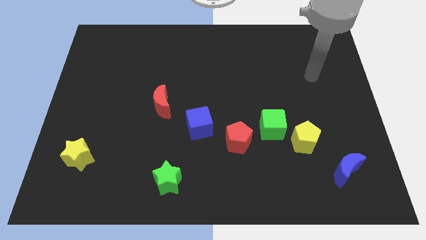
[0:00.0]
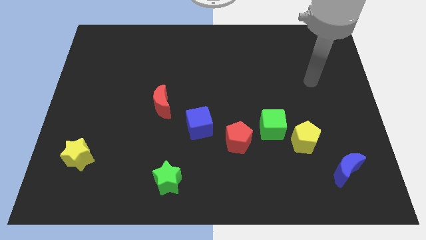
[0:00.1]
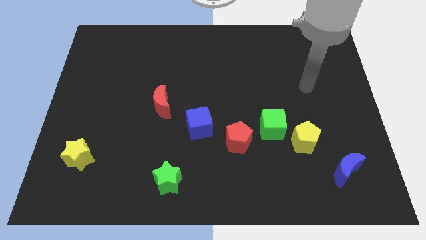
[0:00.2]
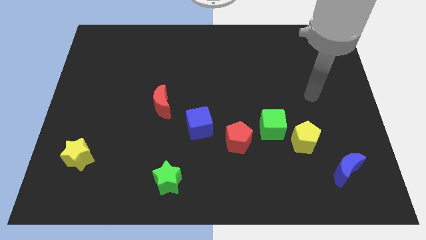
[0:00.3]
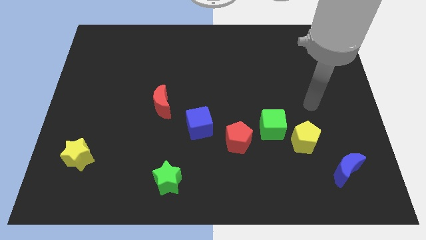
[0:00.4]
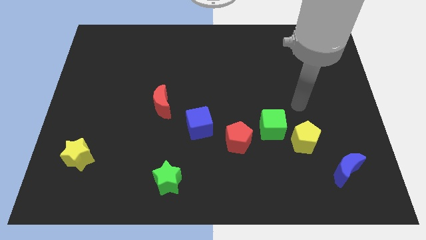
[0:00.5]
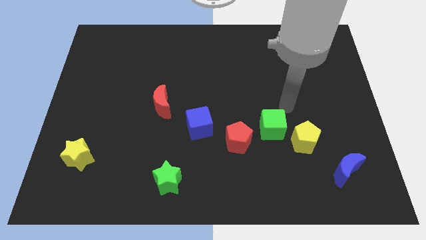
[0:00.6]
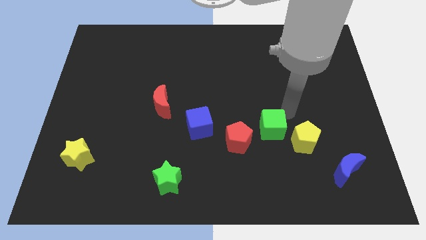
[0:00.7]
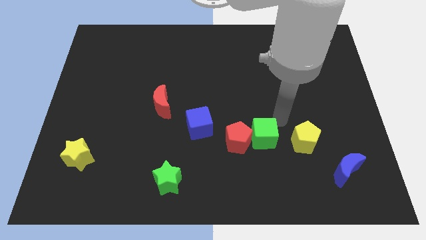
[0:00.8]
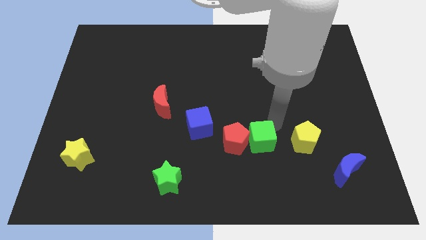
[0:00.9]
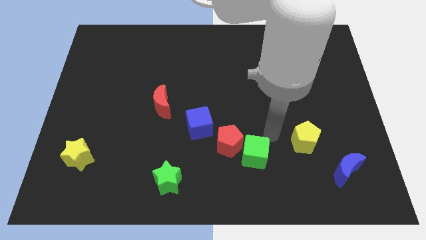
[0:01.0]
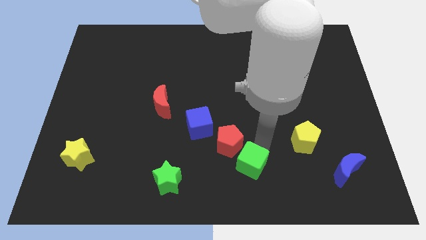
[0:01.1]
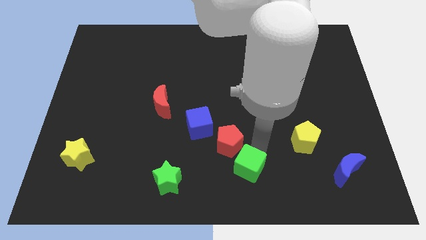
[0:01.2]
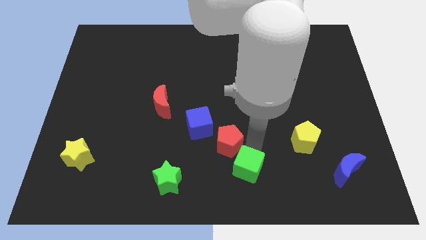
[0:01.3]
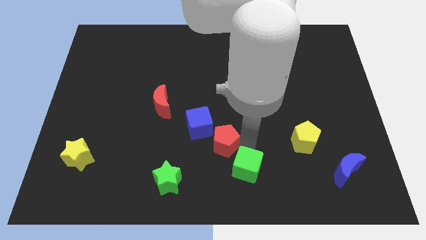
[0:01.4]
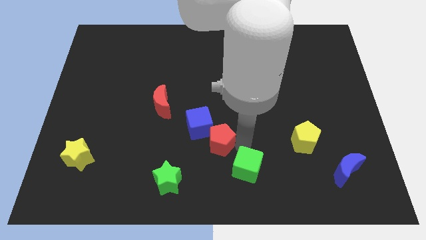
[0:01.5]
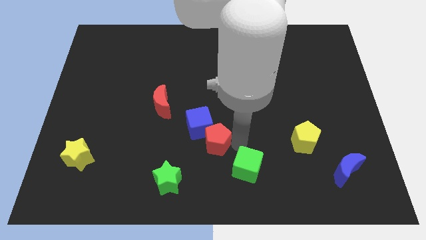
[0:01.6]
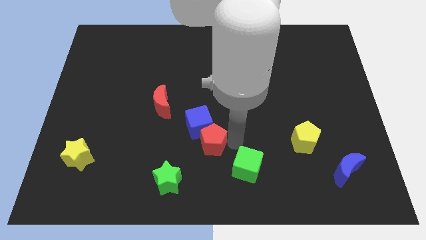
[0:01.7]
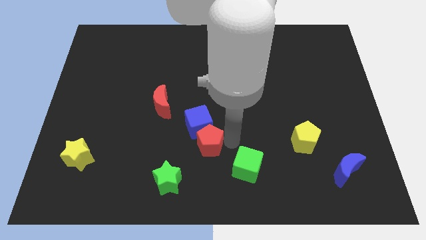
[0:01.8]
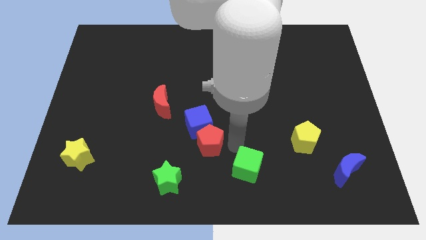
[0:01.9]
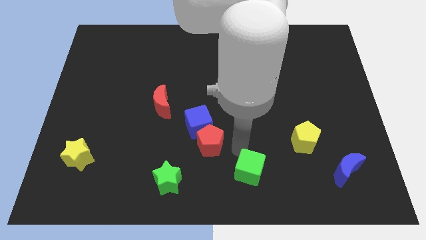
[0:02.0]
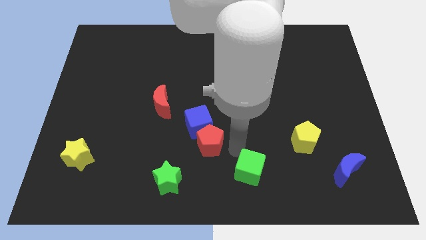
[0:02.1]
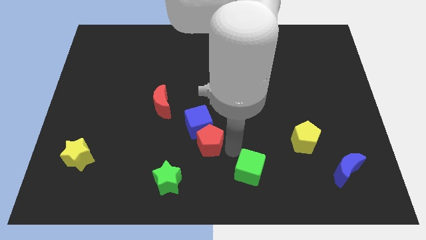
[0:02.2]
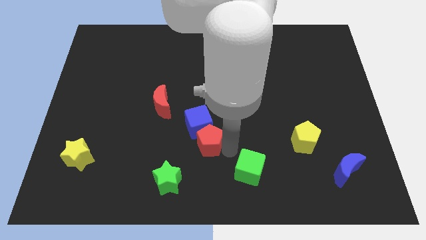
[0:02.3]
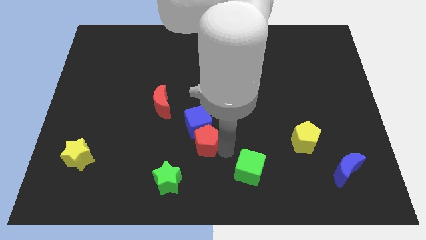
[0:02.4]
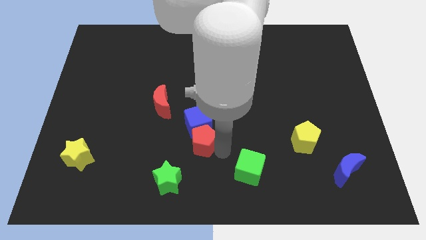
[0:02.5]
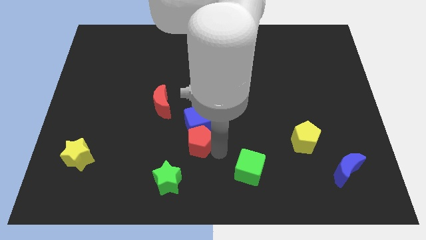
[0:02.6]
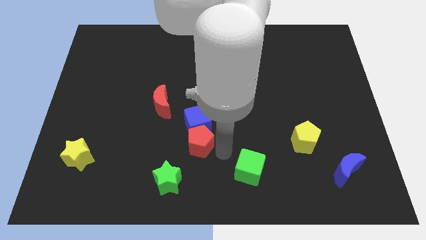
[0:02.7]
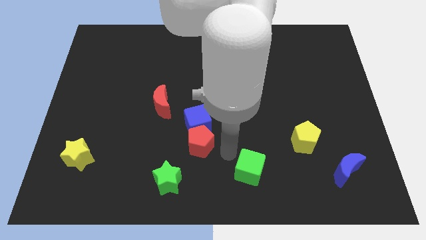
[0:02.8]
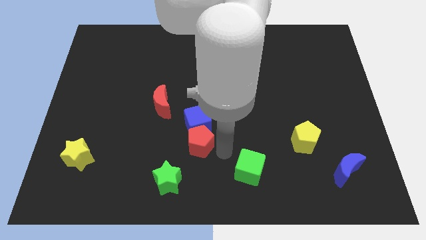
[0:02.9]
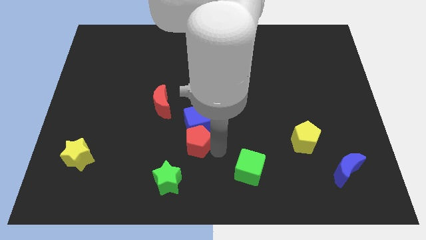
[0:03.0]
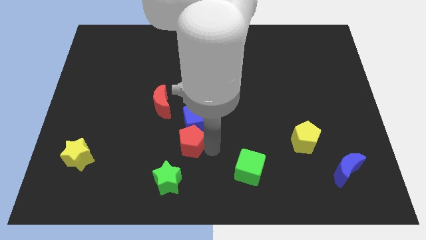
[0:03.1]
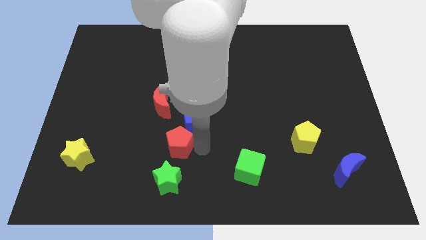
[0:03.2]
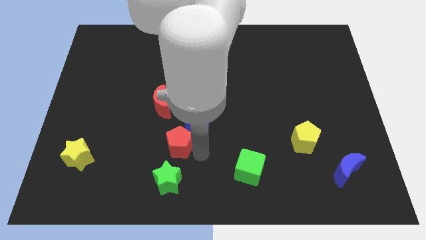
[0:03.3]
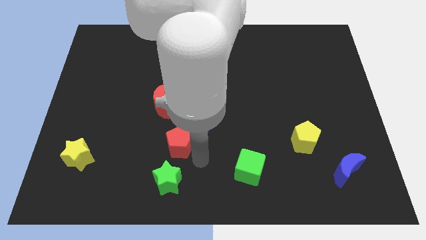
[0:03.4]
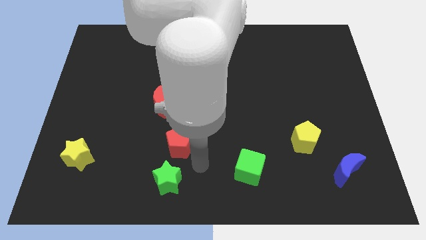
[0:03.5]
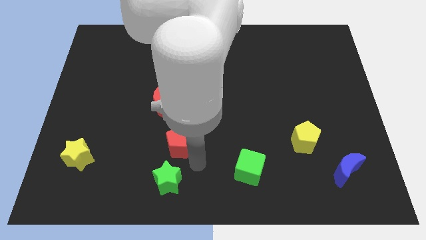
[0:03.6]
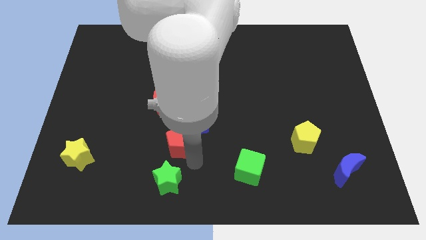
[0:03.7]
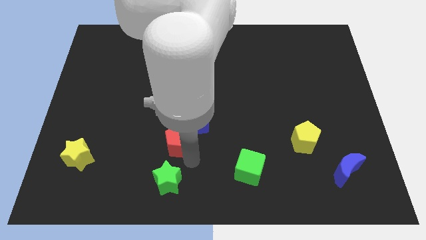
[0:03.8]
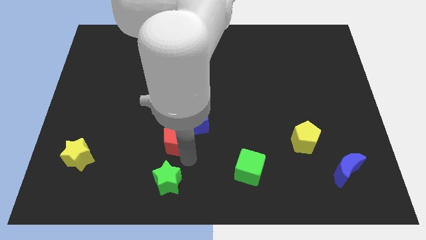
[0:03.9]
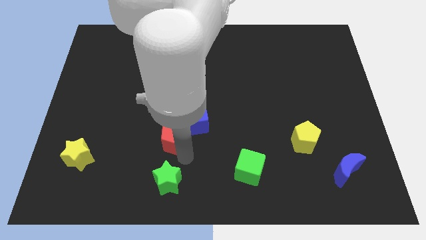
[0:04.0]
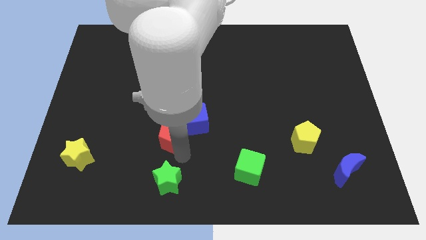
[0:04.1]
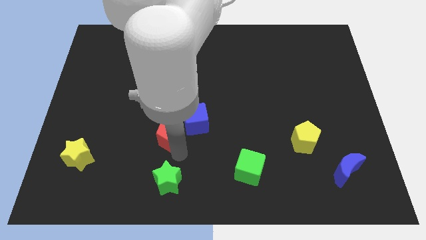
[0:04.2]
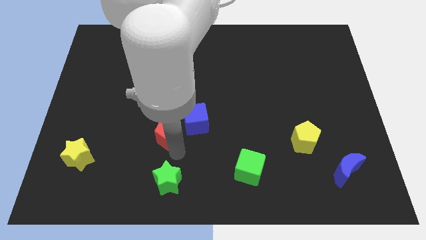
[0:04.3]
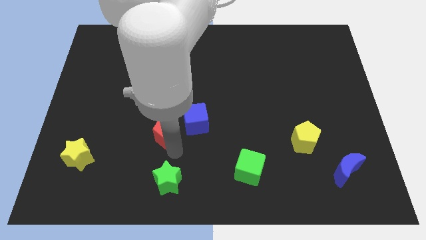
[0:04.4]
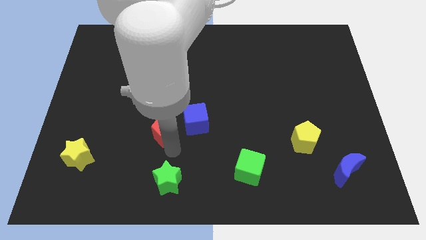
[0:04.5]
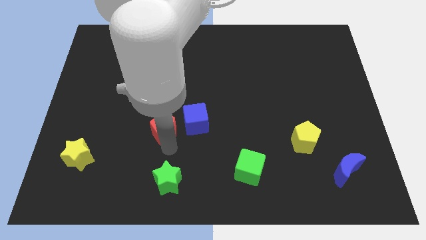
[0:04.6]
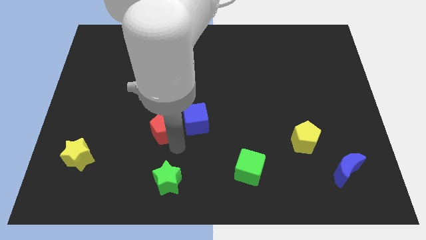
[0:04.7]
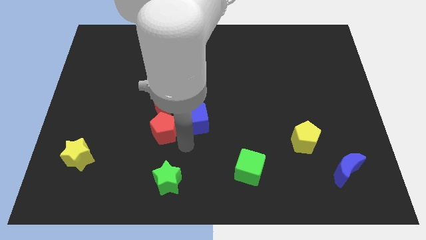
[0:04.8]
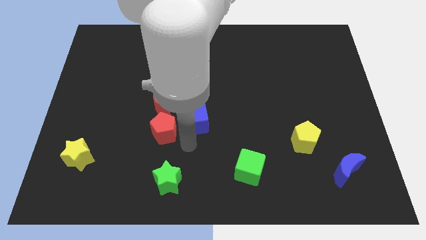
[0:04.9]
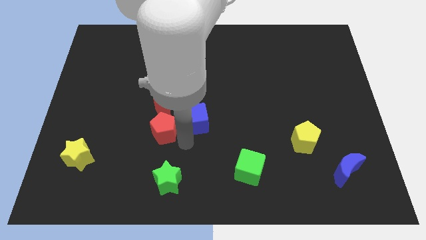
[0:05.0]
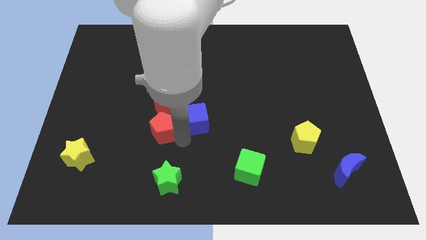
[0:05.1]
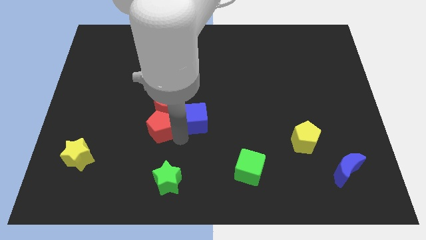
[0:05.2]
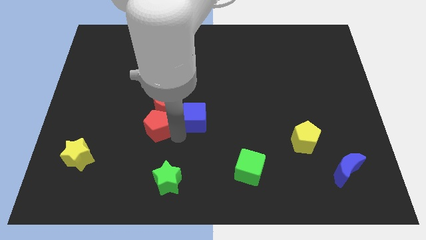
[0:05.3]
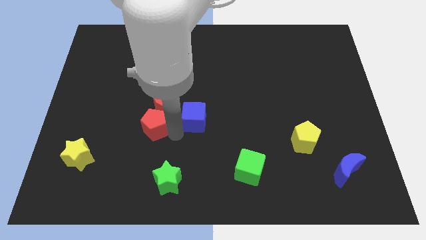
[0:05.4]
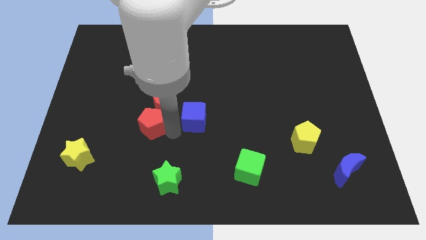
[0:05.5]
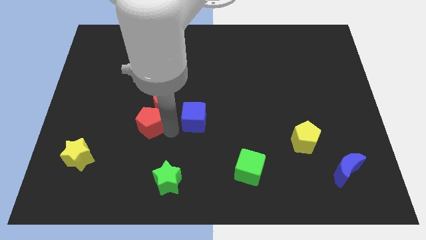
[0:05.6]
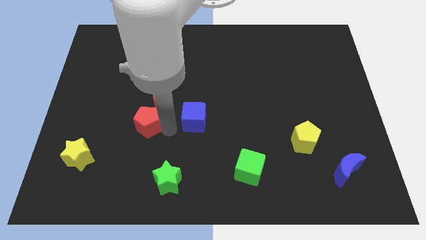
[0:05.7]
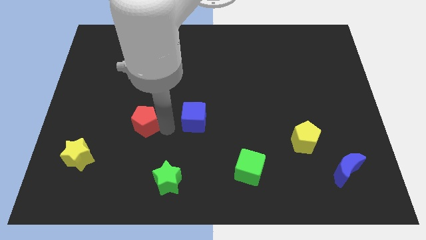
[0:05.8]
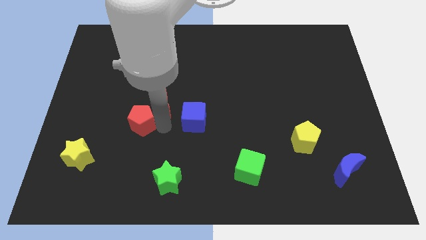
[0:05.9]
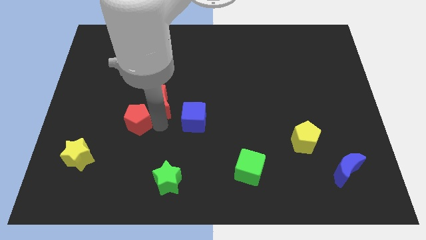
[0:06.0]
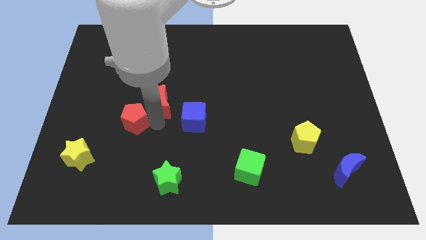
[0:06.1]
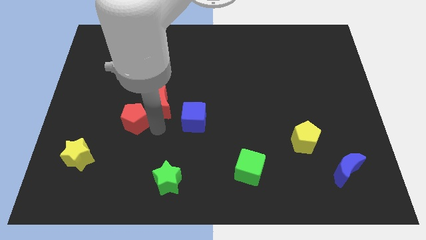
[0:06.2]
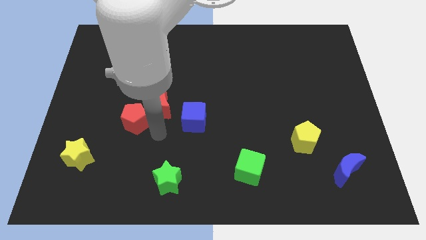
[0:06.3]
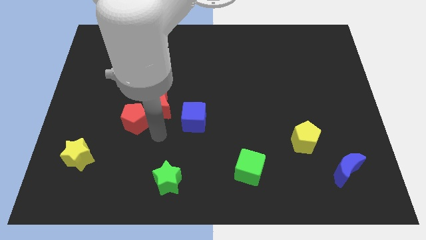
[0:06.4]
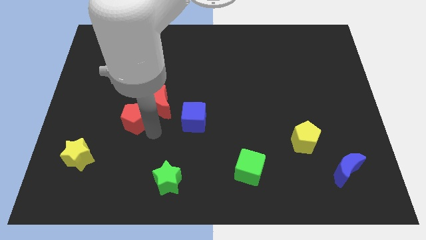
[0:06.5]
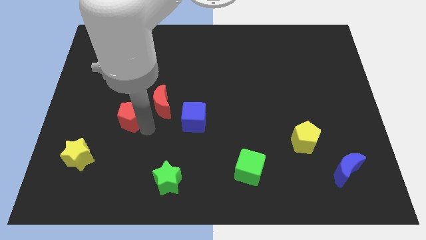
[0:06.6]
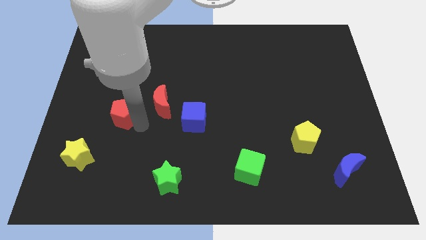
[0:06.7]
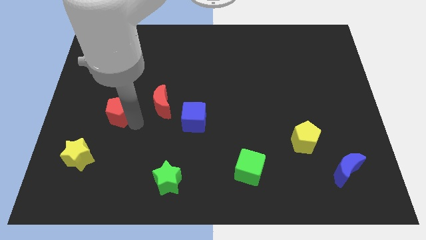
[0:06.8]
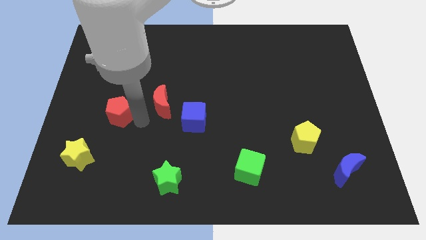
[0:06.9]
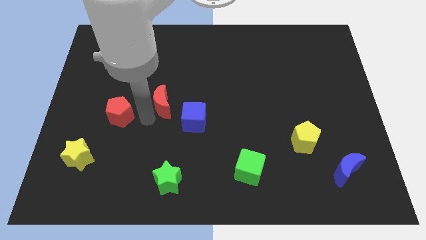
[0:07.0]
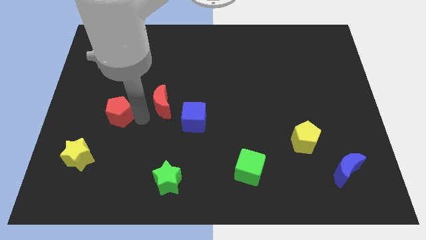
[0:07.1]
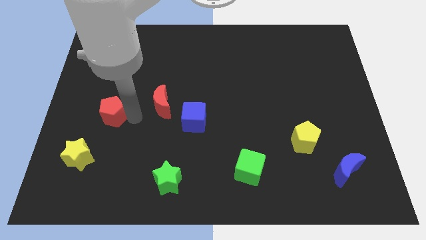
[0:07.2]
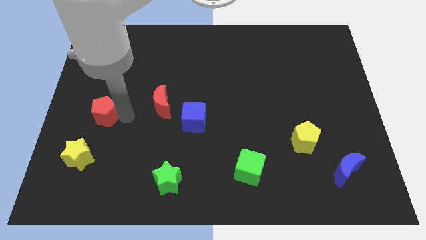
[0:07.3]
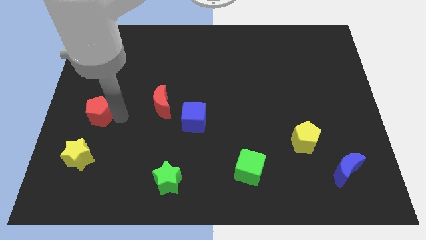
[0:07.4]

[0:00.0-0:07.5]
move the red pentagon to the center left
